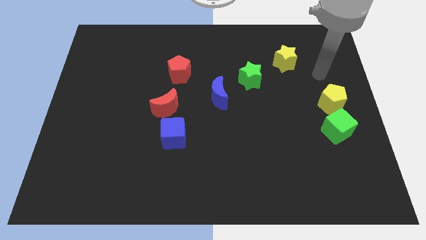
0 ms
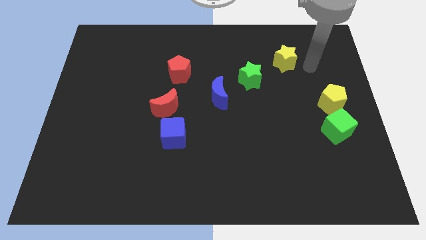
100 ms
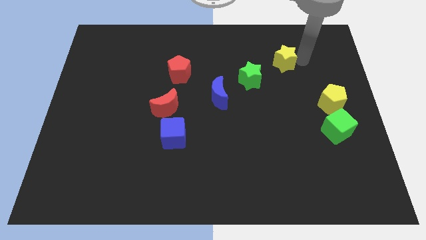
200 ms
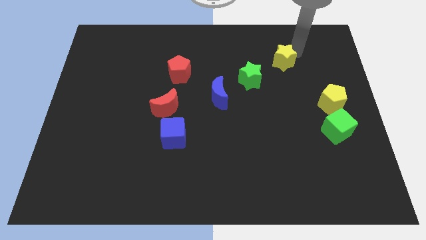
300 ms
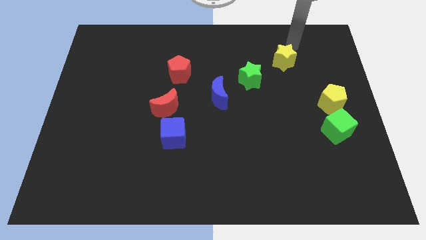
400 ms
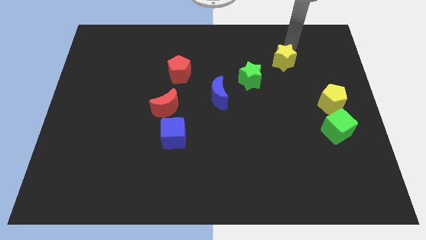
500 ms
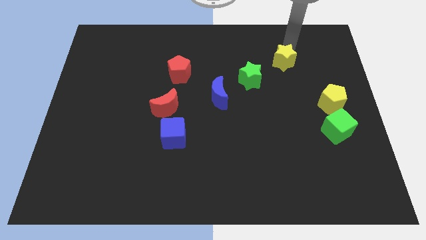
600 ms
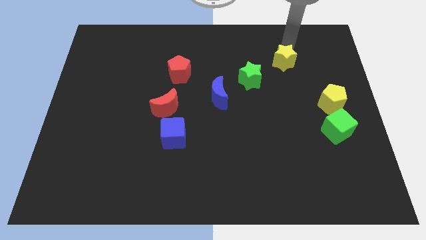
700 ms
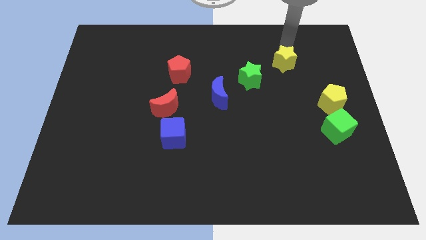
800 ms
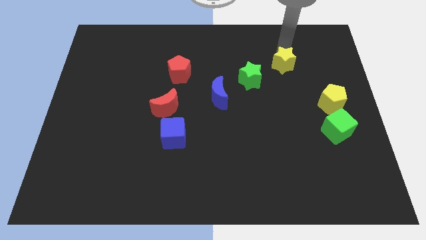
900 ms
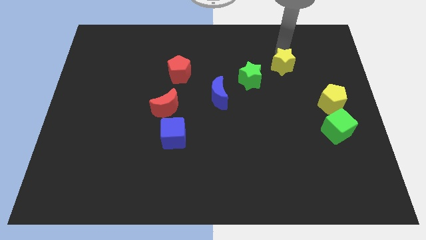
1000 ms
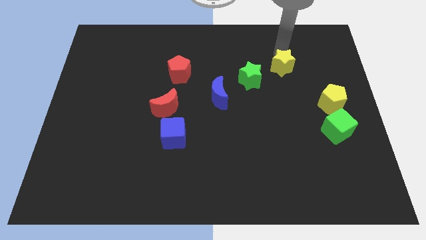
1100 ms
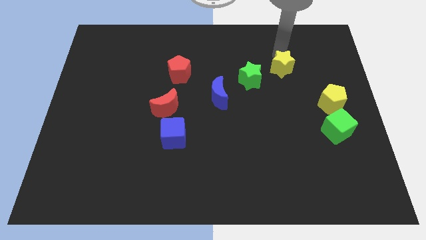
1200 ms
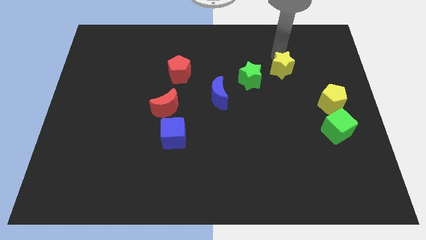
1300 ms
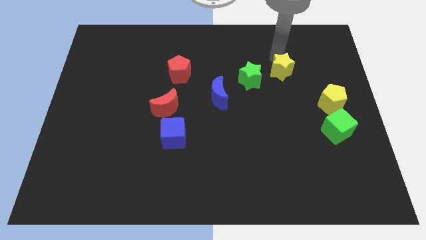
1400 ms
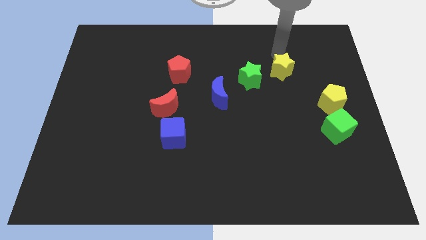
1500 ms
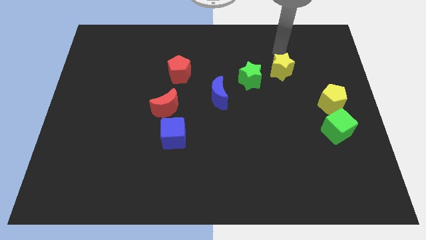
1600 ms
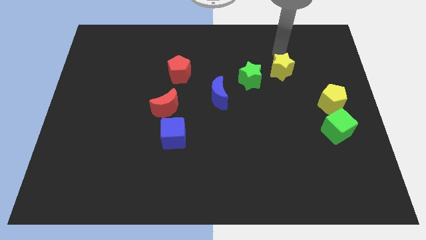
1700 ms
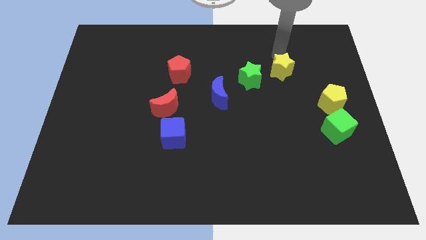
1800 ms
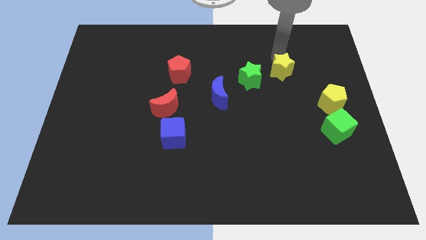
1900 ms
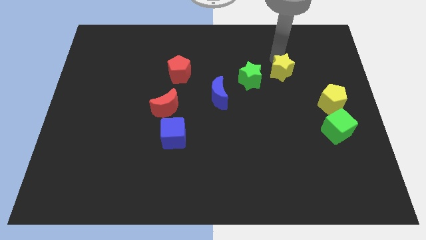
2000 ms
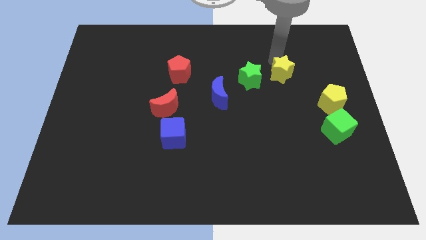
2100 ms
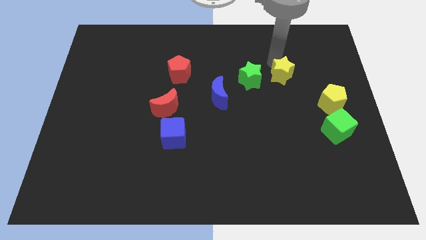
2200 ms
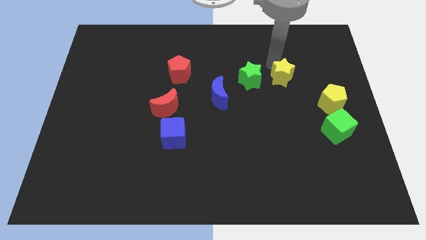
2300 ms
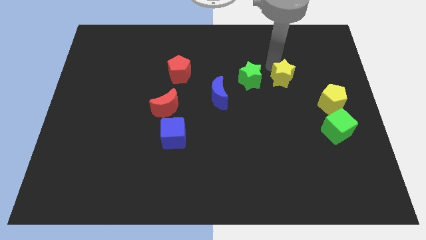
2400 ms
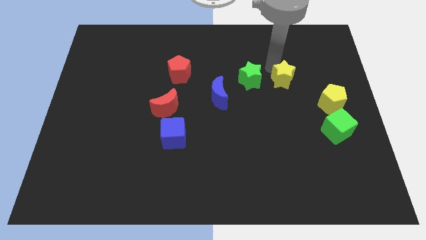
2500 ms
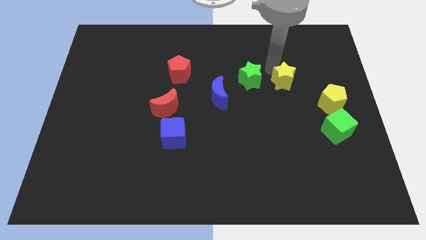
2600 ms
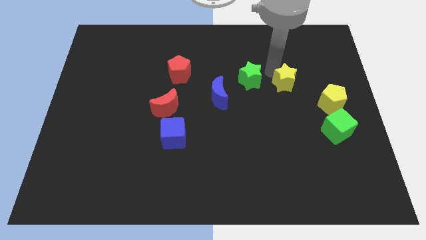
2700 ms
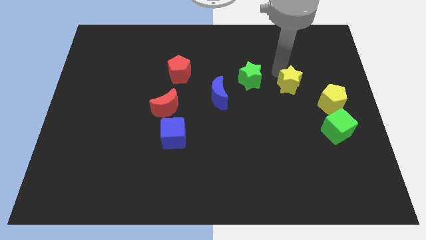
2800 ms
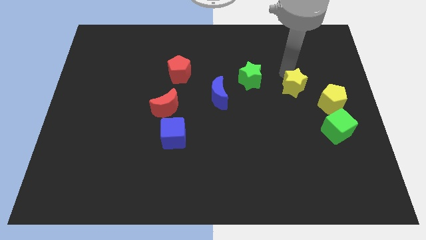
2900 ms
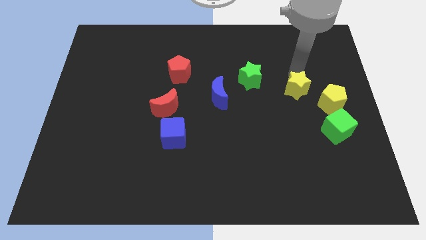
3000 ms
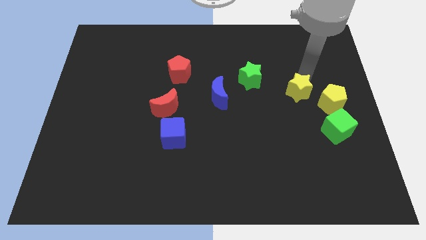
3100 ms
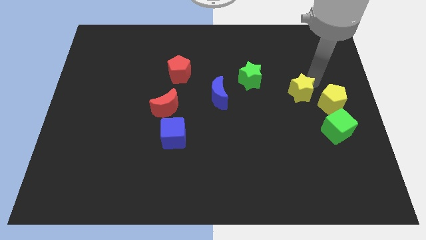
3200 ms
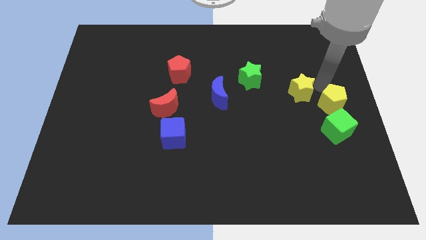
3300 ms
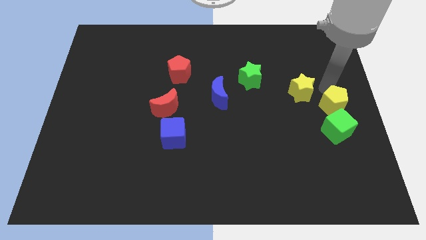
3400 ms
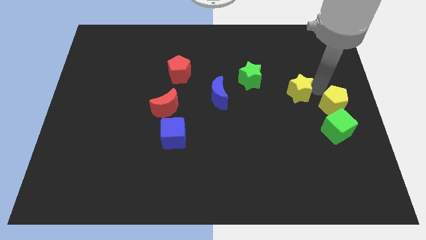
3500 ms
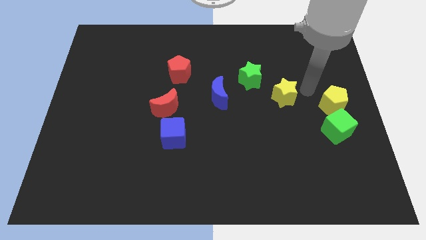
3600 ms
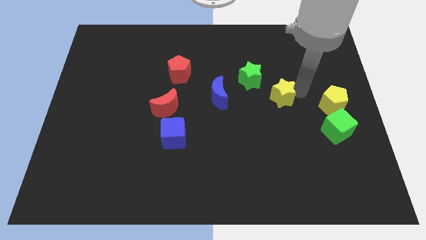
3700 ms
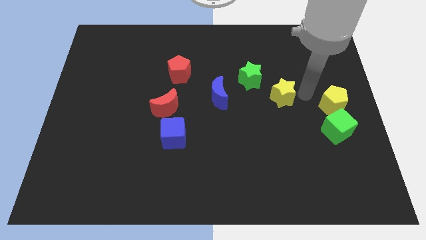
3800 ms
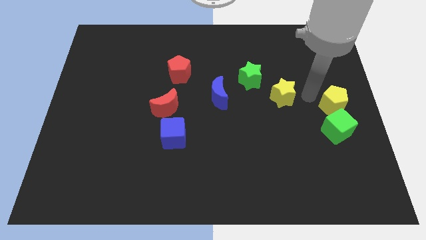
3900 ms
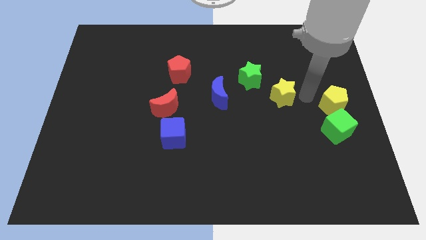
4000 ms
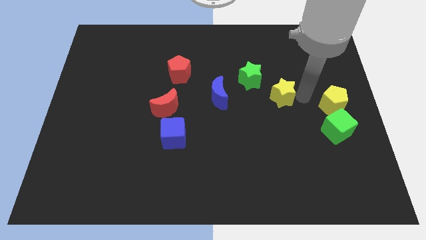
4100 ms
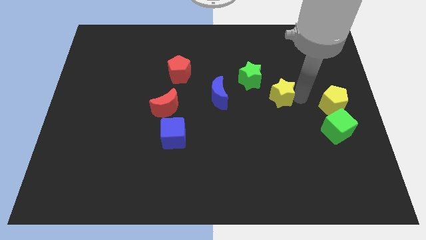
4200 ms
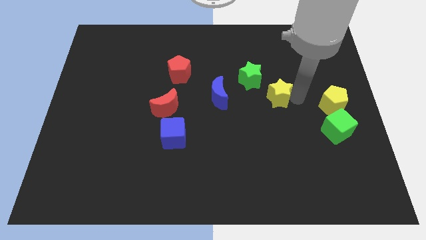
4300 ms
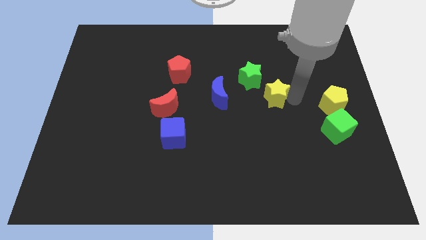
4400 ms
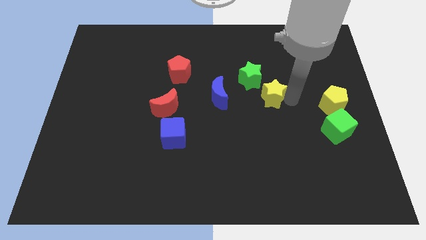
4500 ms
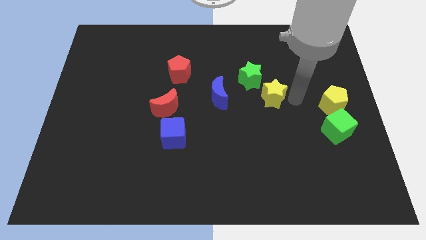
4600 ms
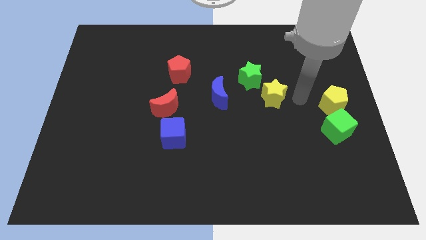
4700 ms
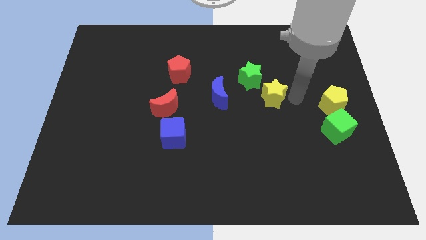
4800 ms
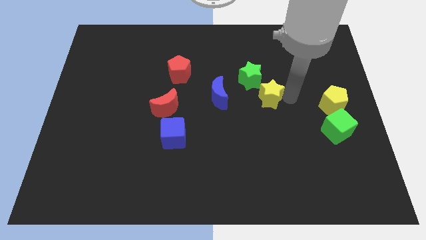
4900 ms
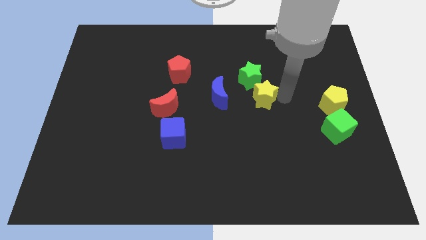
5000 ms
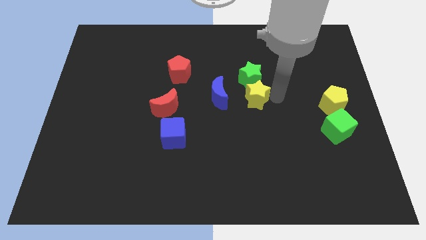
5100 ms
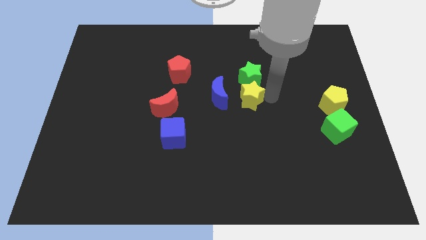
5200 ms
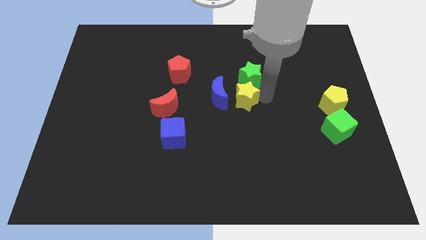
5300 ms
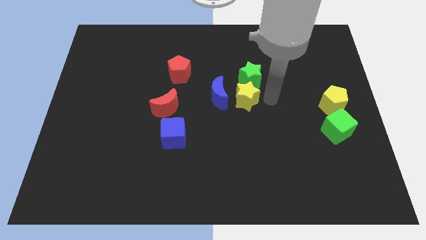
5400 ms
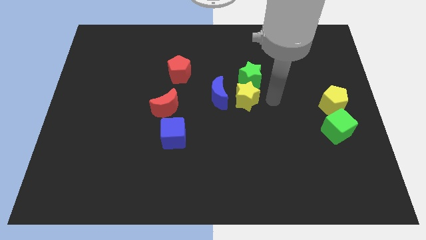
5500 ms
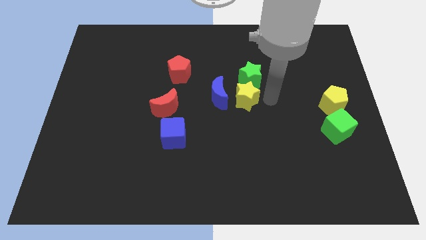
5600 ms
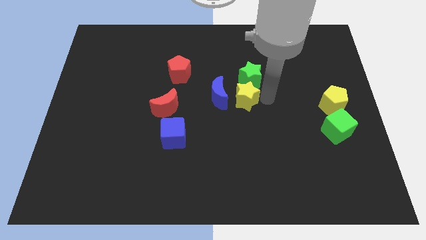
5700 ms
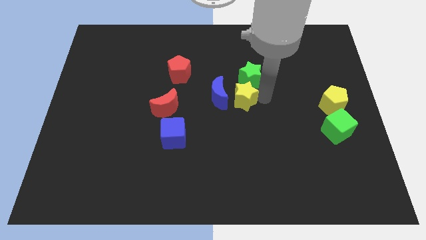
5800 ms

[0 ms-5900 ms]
slide the yellow star next to the blue moon

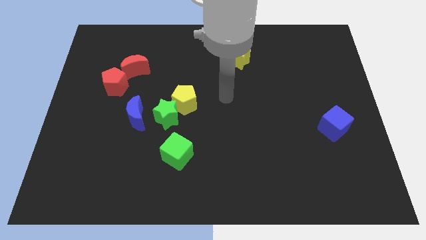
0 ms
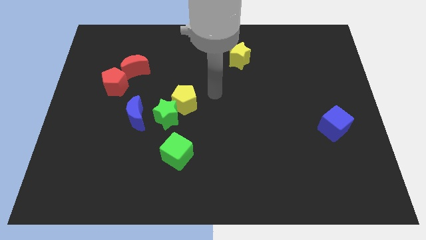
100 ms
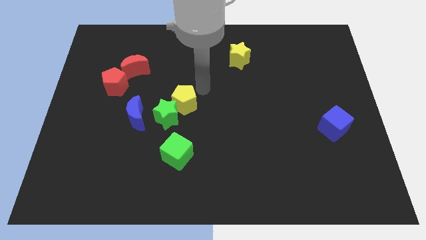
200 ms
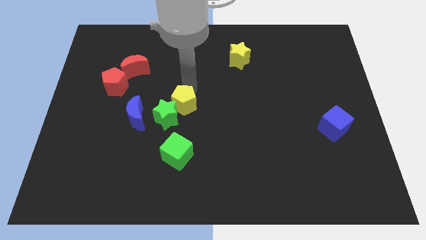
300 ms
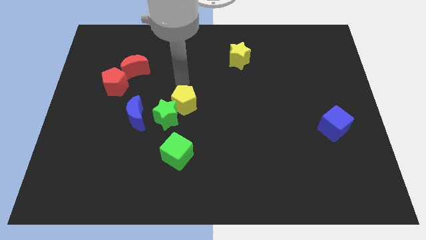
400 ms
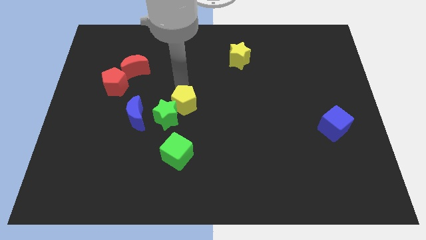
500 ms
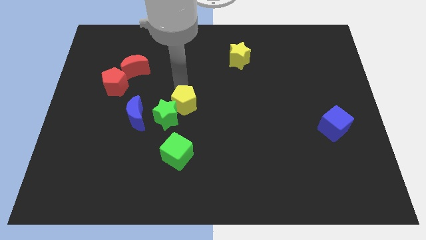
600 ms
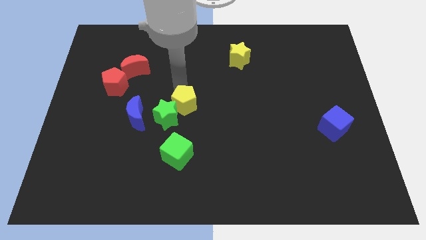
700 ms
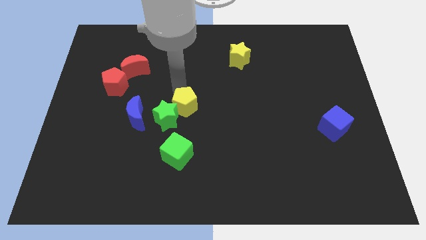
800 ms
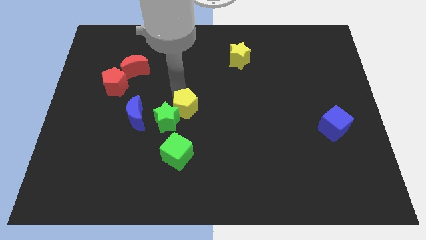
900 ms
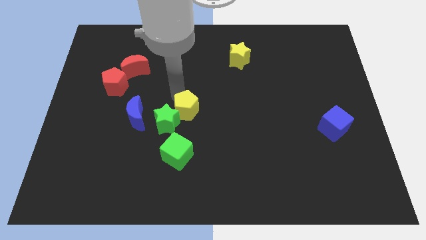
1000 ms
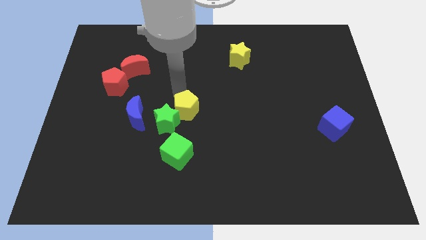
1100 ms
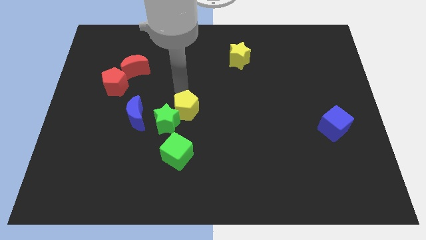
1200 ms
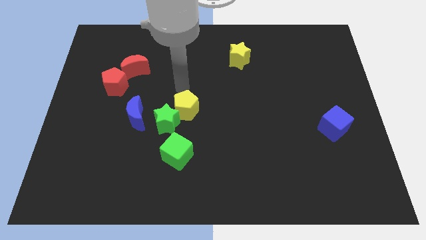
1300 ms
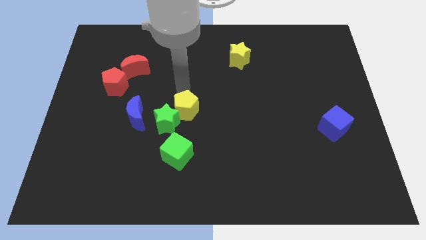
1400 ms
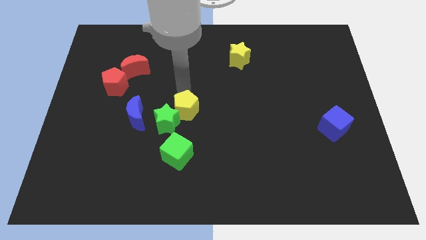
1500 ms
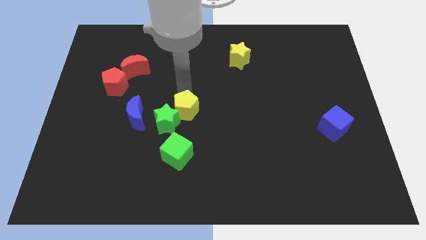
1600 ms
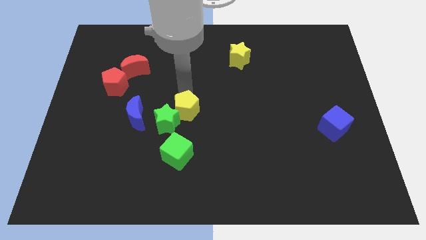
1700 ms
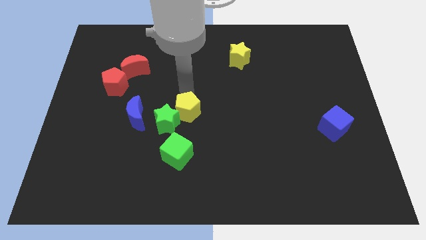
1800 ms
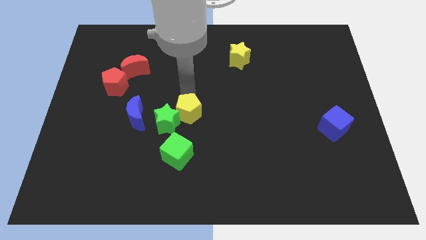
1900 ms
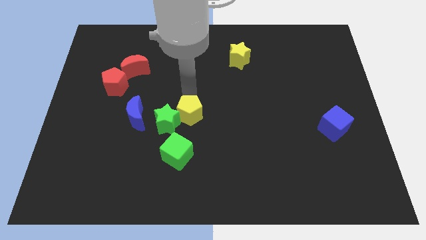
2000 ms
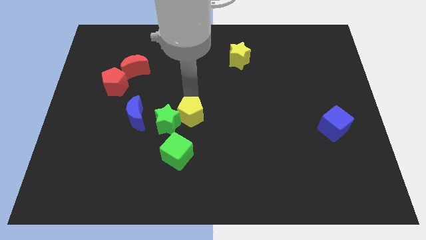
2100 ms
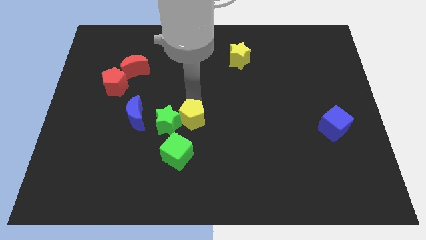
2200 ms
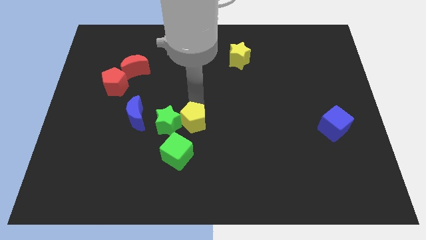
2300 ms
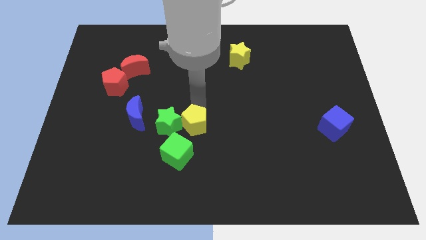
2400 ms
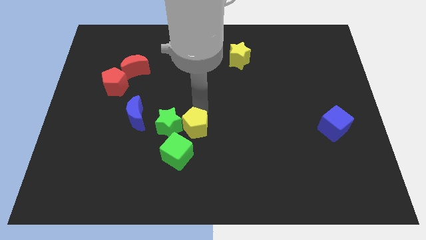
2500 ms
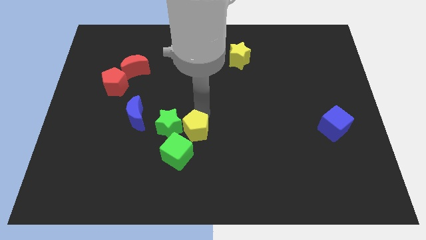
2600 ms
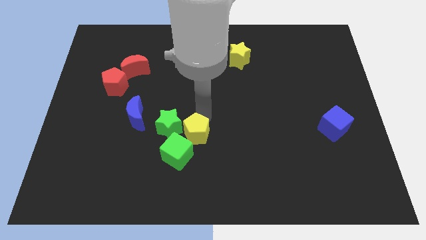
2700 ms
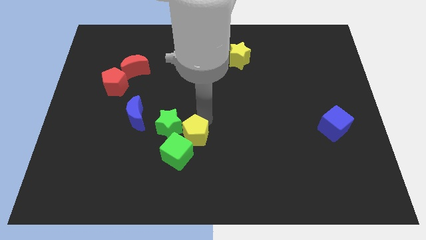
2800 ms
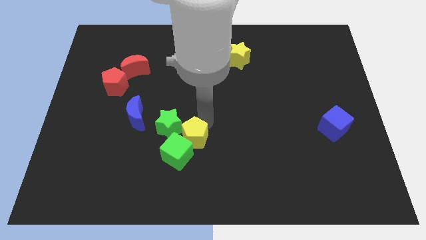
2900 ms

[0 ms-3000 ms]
slide the yellow pentagon to the green cube
